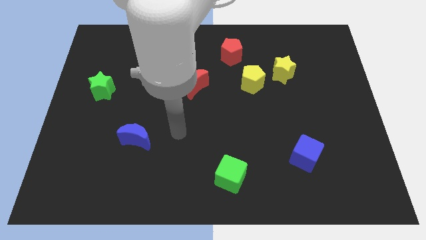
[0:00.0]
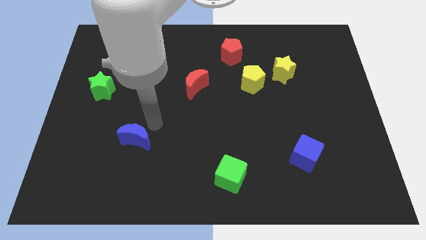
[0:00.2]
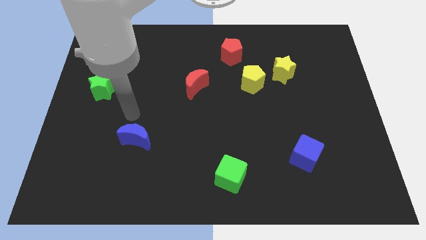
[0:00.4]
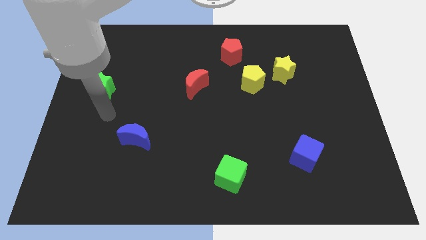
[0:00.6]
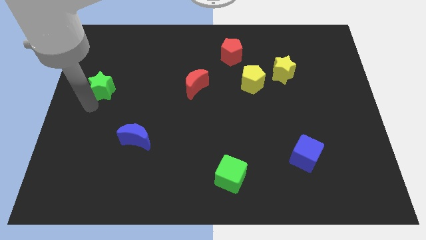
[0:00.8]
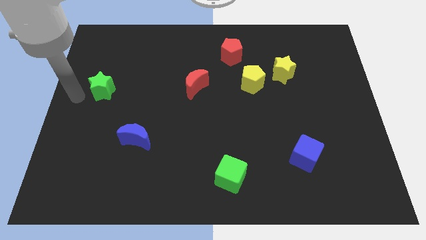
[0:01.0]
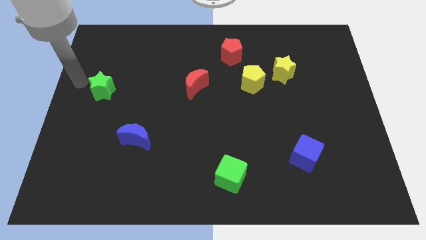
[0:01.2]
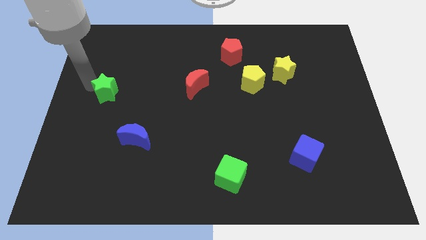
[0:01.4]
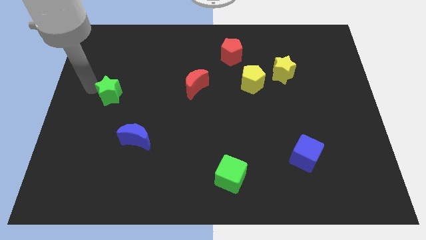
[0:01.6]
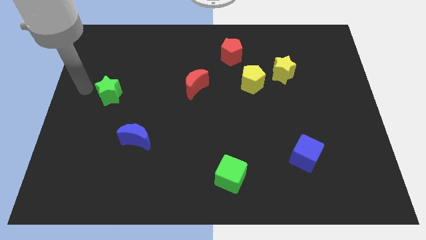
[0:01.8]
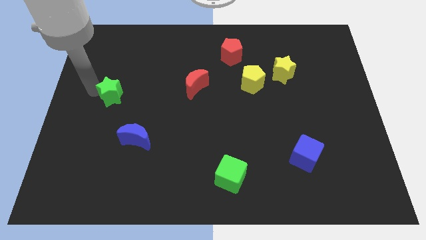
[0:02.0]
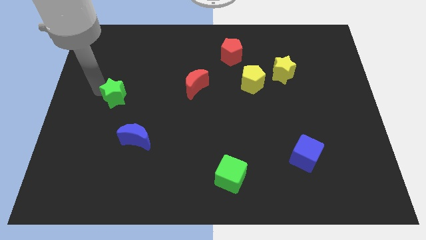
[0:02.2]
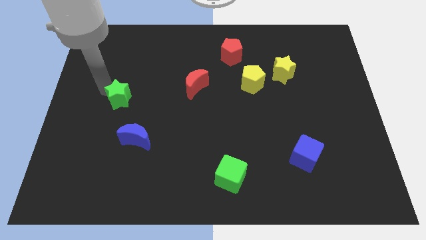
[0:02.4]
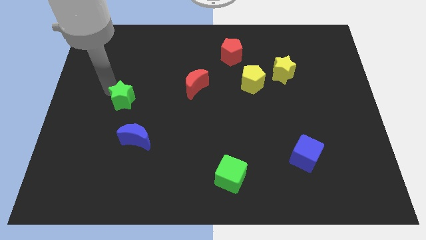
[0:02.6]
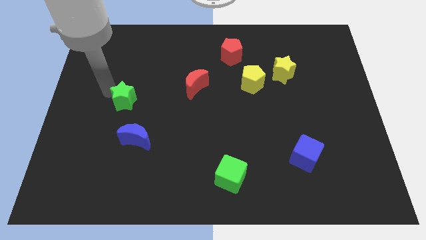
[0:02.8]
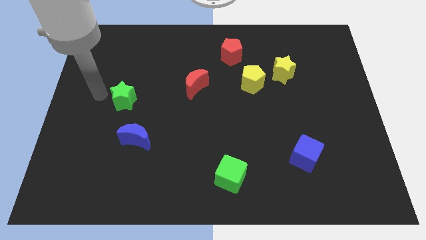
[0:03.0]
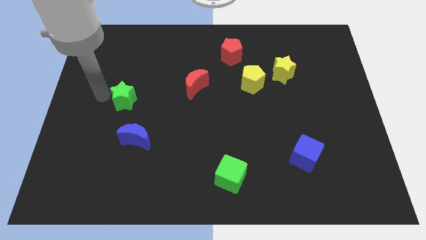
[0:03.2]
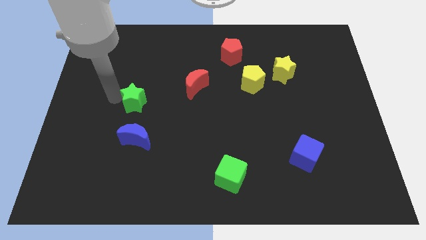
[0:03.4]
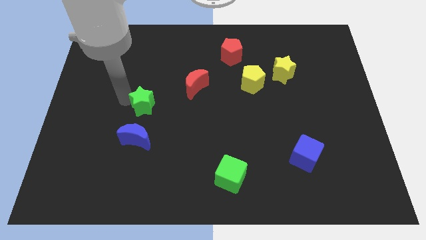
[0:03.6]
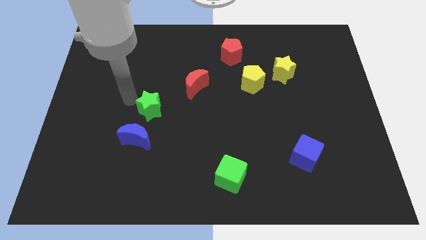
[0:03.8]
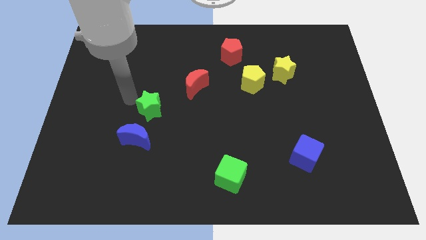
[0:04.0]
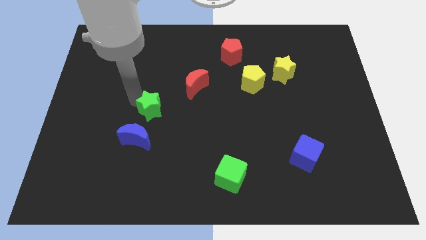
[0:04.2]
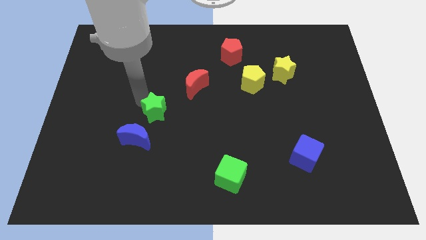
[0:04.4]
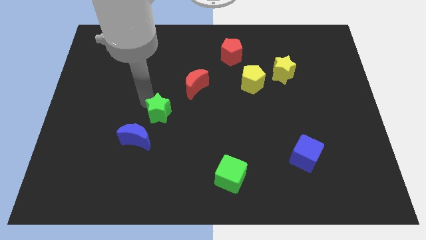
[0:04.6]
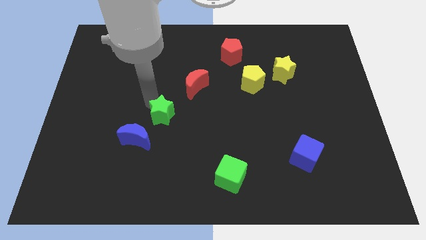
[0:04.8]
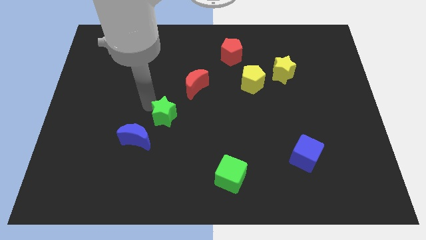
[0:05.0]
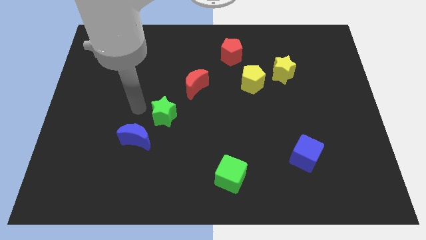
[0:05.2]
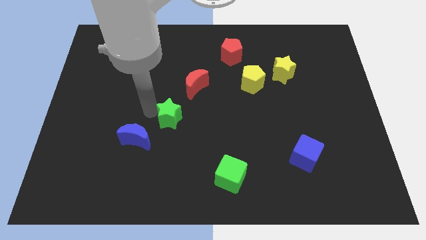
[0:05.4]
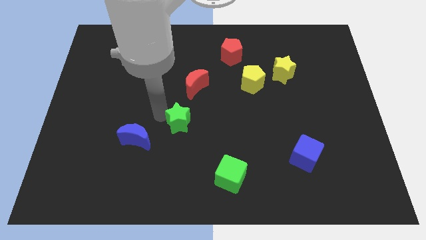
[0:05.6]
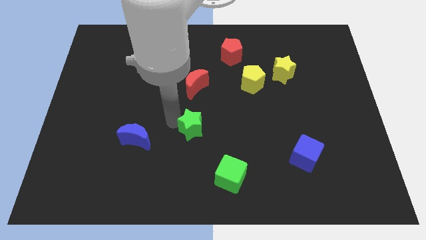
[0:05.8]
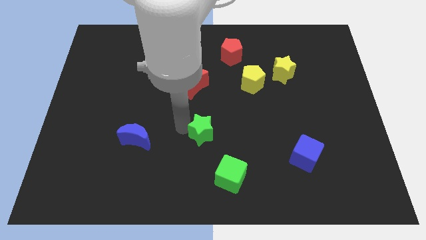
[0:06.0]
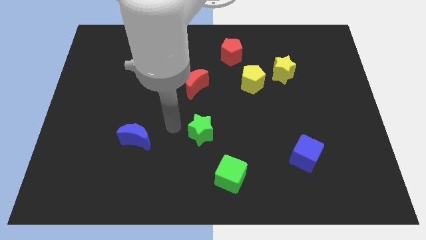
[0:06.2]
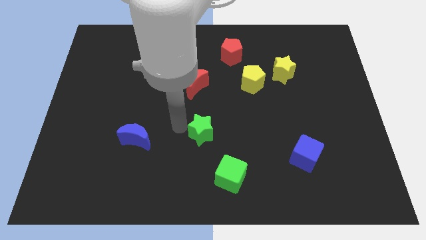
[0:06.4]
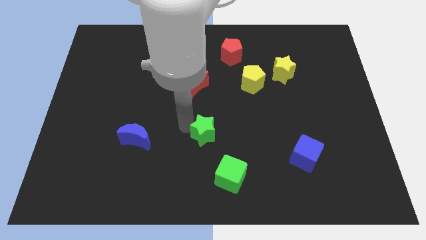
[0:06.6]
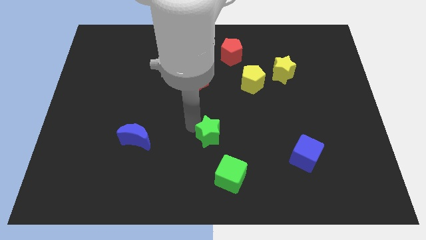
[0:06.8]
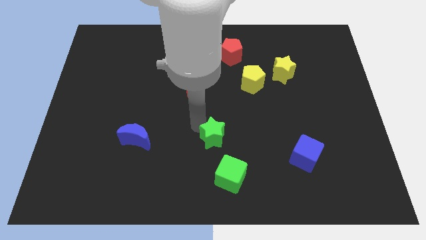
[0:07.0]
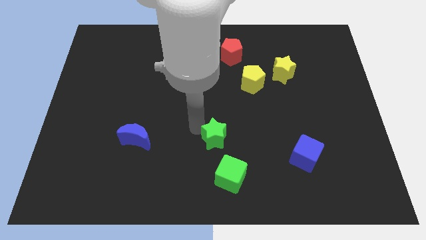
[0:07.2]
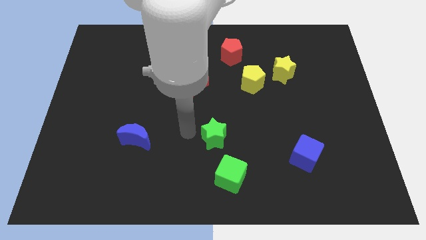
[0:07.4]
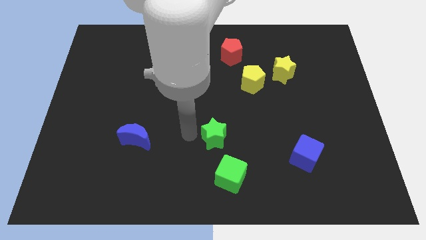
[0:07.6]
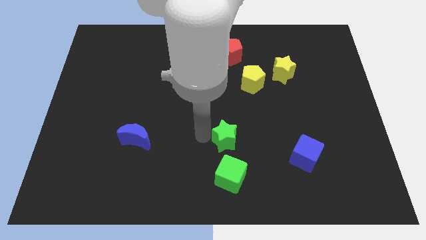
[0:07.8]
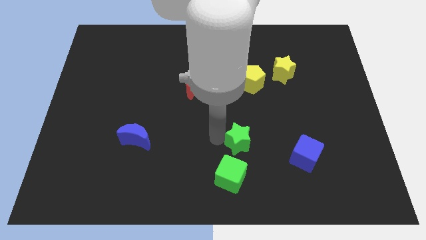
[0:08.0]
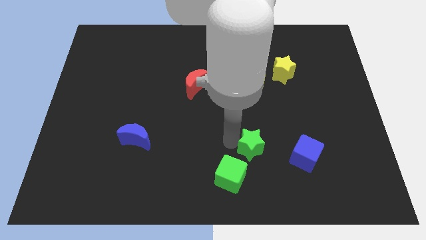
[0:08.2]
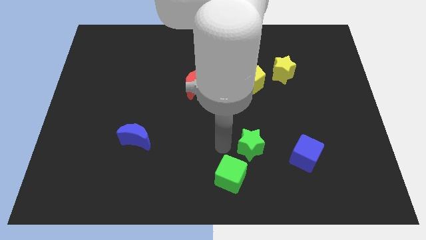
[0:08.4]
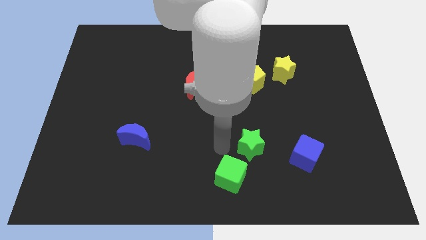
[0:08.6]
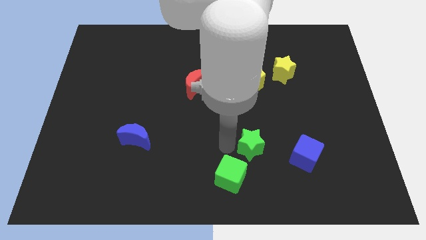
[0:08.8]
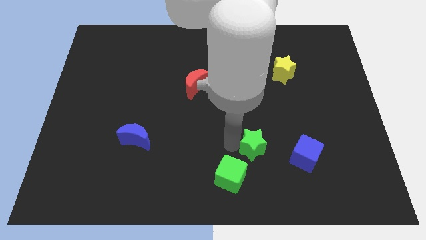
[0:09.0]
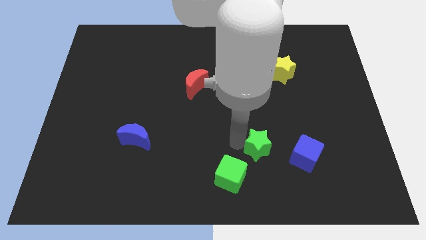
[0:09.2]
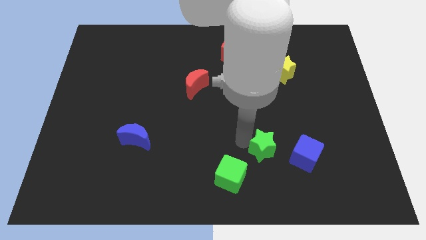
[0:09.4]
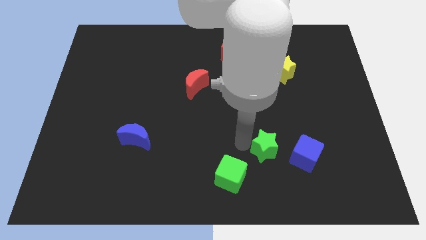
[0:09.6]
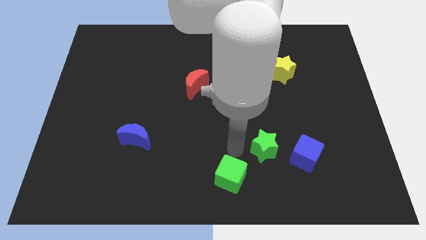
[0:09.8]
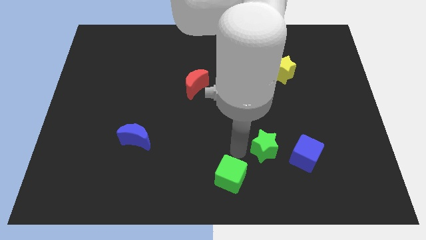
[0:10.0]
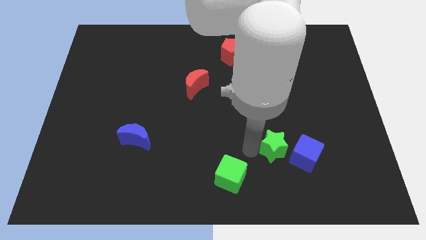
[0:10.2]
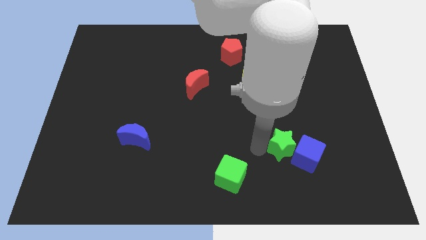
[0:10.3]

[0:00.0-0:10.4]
push the green star to the blue cube

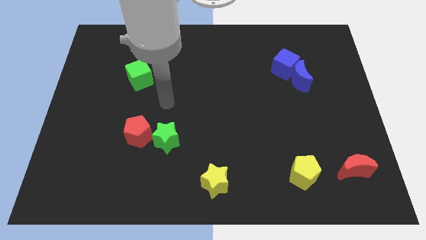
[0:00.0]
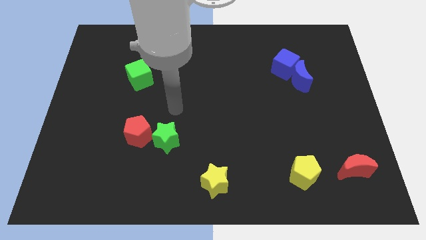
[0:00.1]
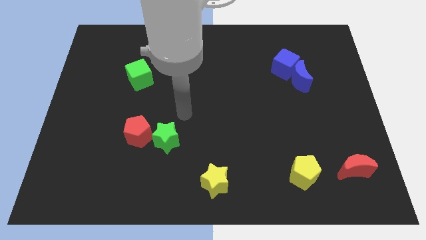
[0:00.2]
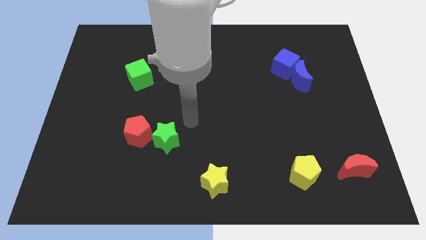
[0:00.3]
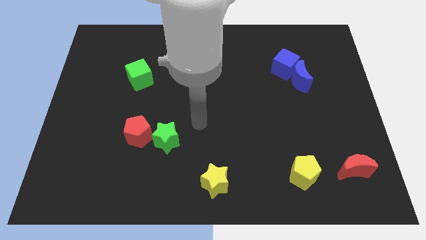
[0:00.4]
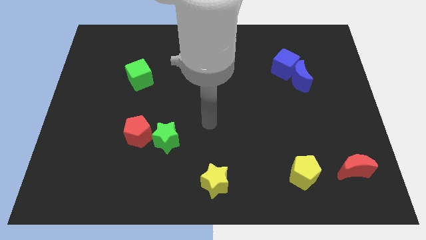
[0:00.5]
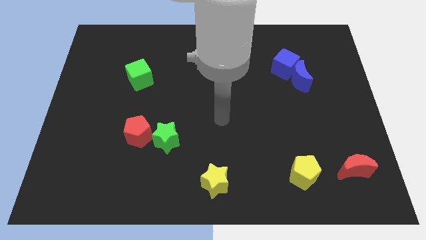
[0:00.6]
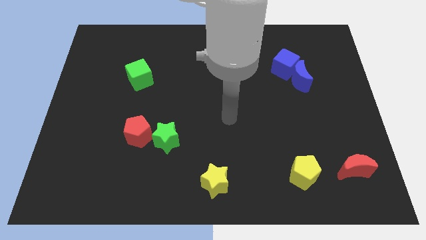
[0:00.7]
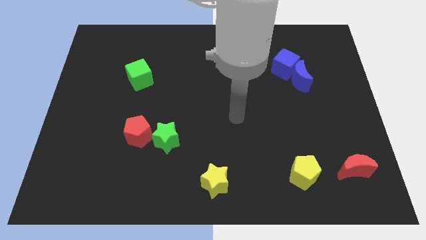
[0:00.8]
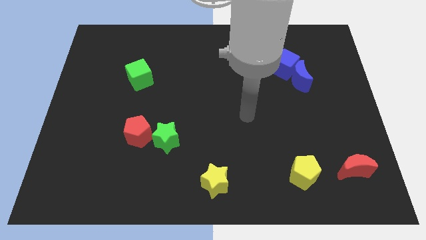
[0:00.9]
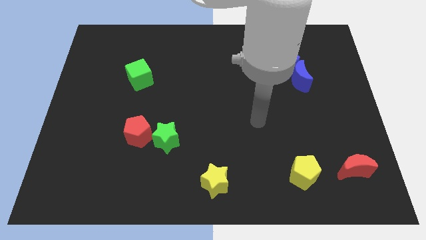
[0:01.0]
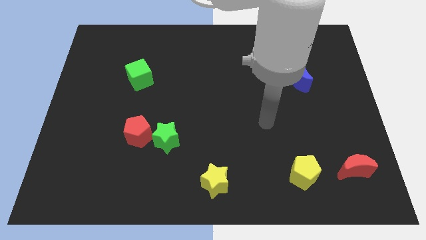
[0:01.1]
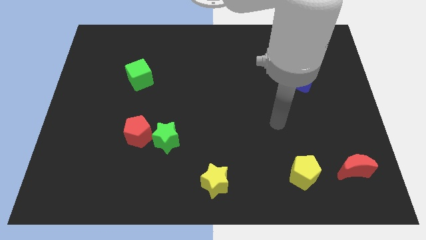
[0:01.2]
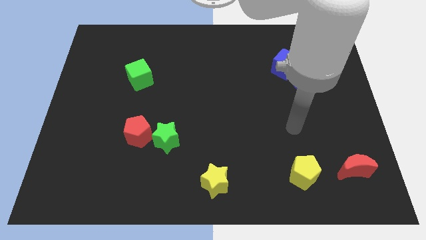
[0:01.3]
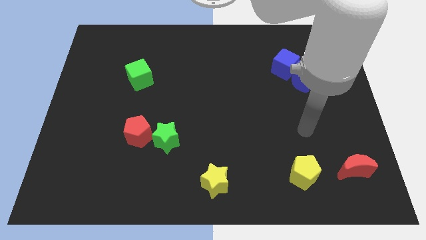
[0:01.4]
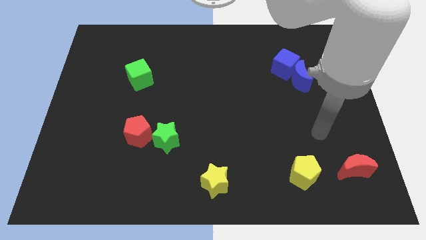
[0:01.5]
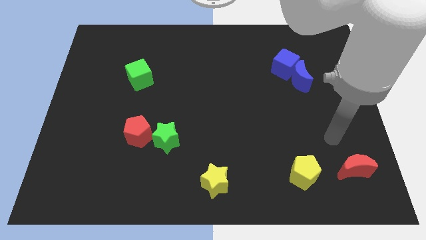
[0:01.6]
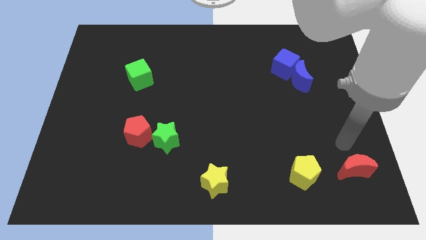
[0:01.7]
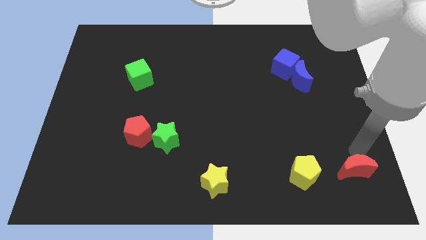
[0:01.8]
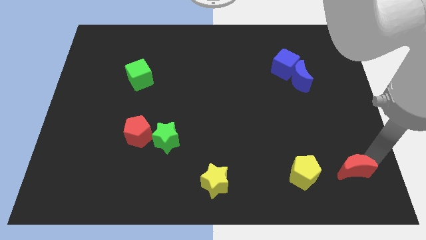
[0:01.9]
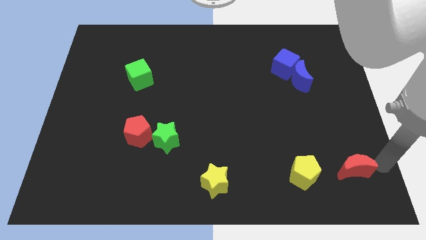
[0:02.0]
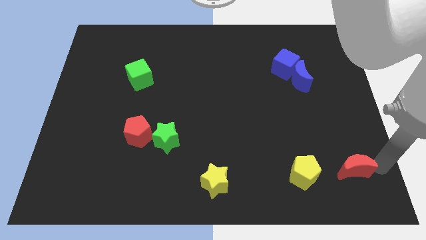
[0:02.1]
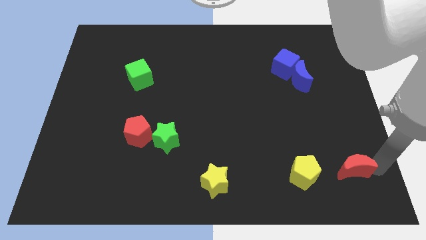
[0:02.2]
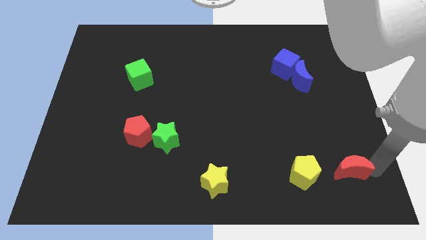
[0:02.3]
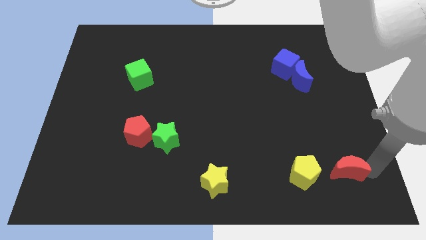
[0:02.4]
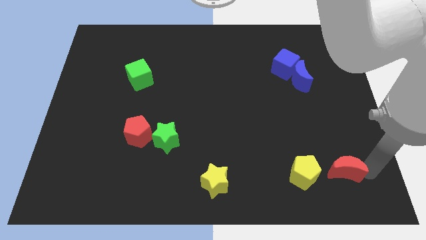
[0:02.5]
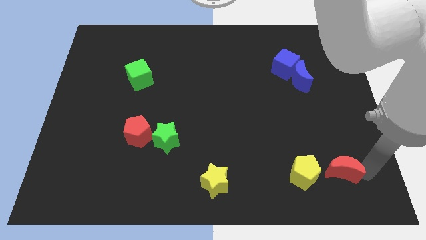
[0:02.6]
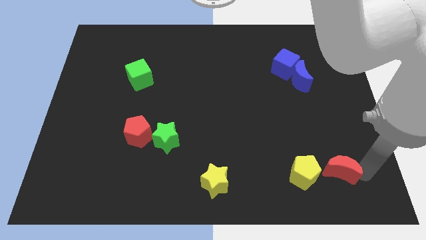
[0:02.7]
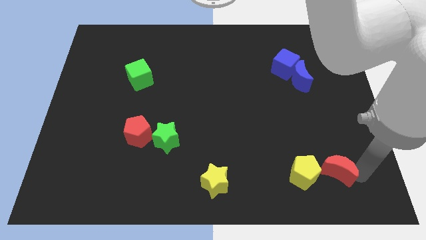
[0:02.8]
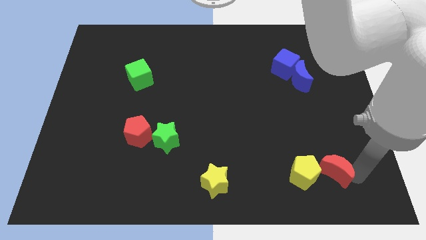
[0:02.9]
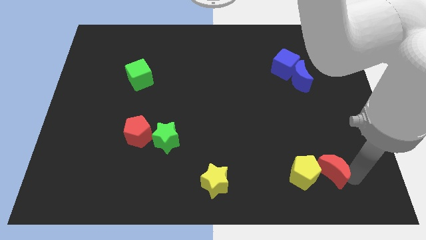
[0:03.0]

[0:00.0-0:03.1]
push the red moon to the yellow pentagon
